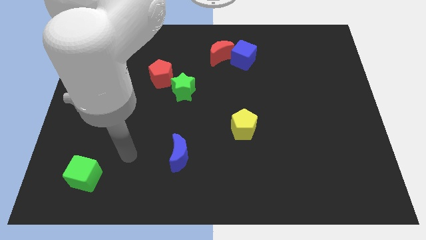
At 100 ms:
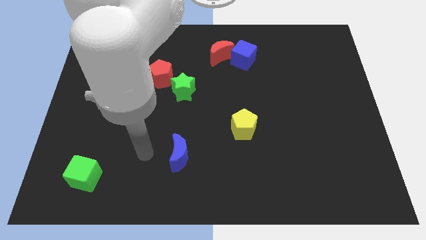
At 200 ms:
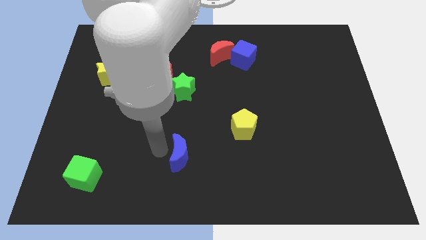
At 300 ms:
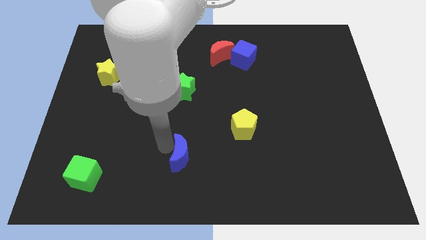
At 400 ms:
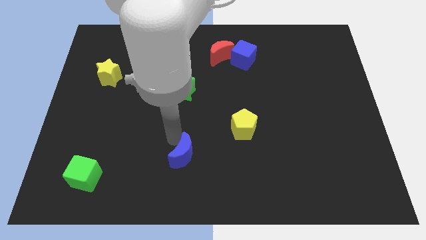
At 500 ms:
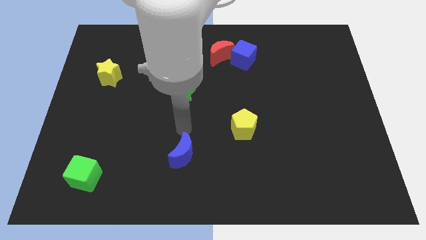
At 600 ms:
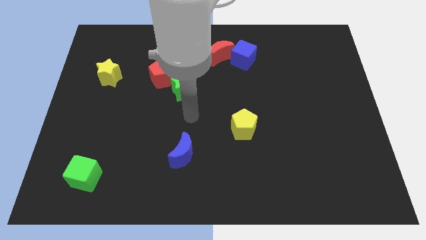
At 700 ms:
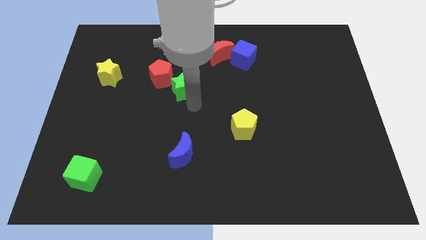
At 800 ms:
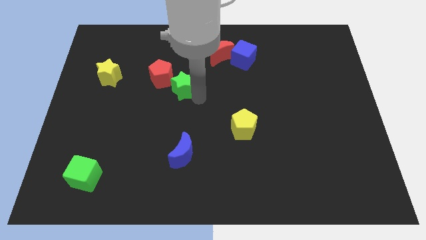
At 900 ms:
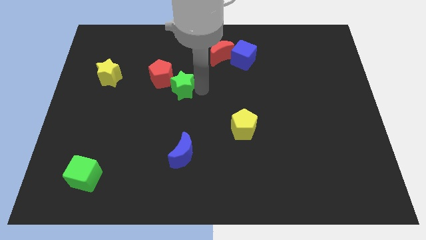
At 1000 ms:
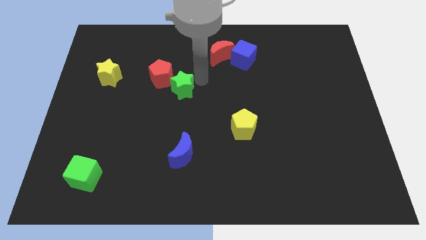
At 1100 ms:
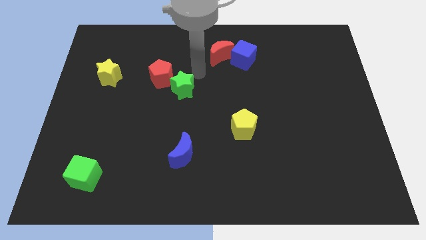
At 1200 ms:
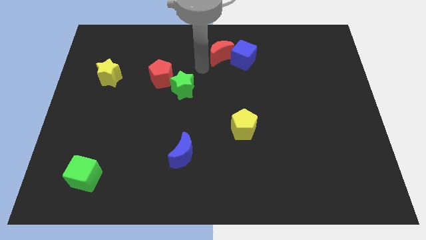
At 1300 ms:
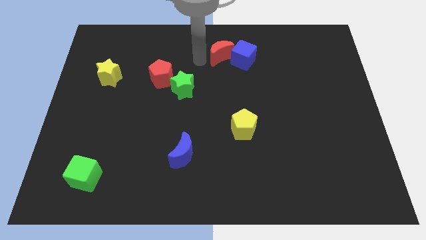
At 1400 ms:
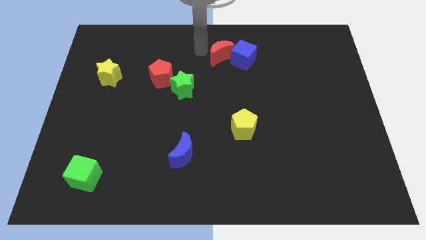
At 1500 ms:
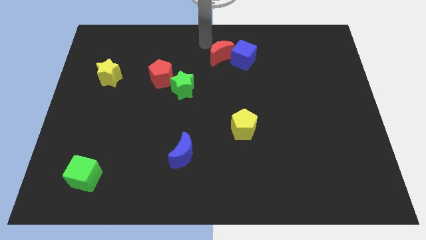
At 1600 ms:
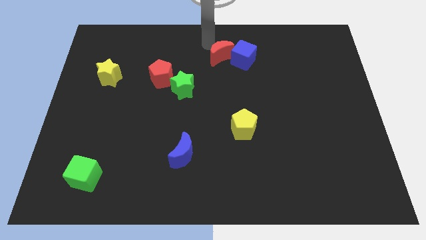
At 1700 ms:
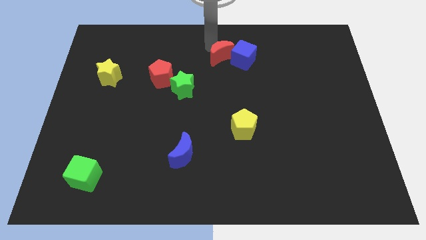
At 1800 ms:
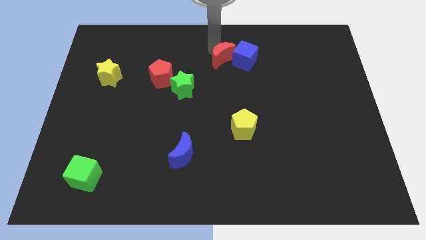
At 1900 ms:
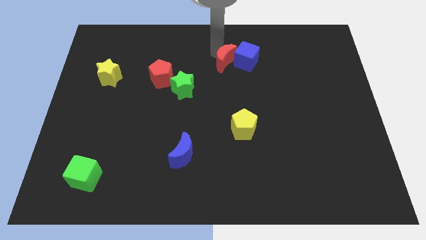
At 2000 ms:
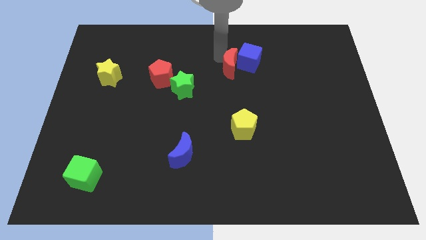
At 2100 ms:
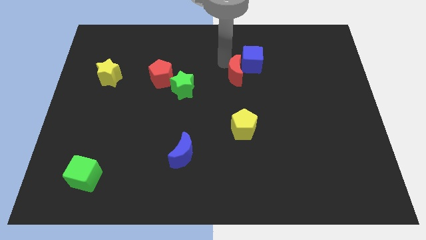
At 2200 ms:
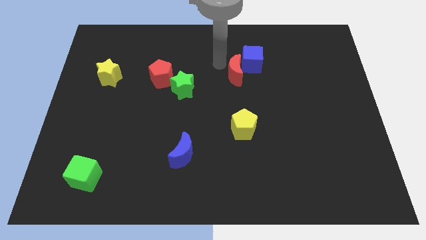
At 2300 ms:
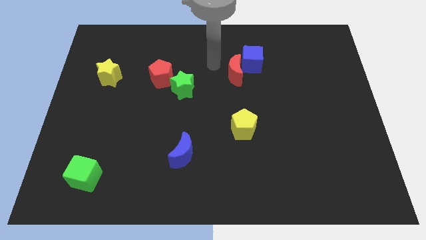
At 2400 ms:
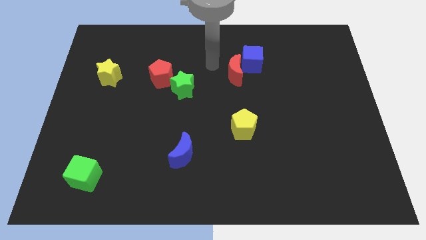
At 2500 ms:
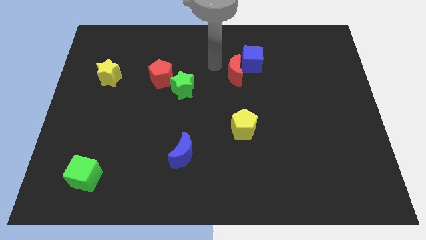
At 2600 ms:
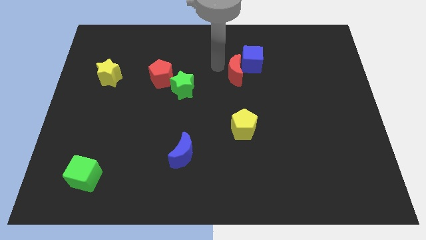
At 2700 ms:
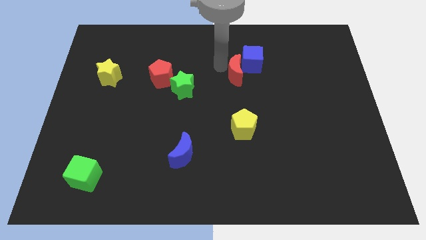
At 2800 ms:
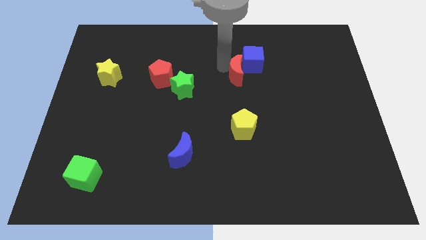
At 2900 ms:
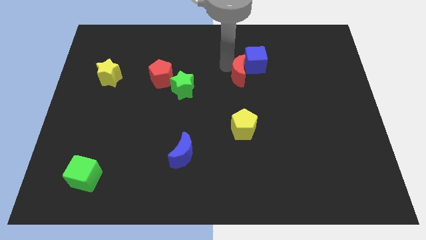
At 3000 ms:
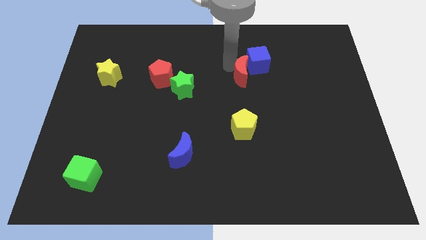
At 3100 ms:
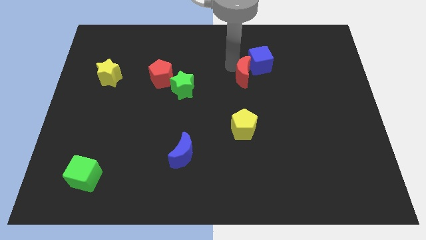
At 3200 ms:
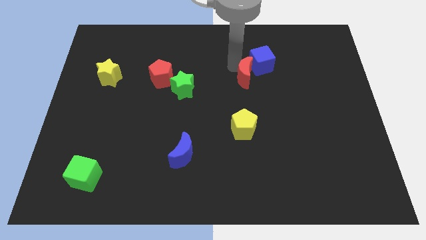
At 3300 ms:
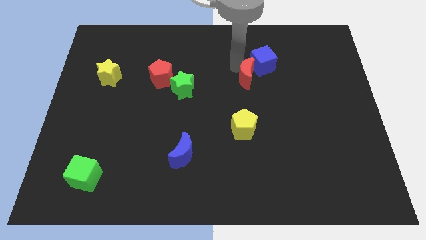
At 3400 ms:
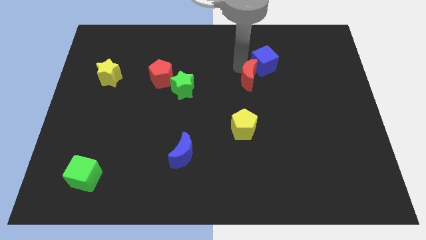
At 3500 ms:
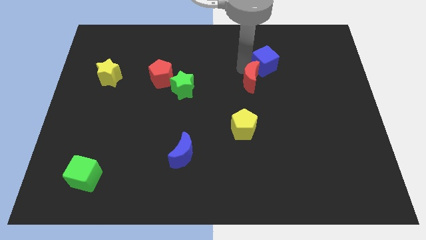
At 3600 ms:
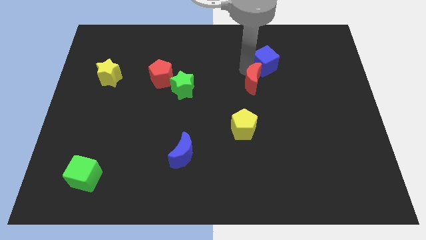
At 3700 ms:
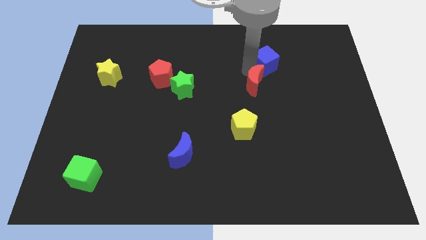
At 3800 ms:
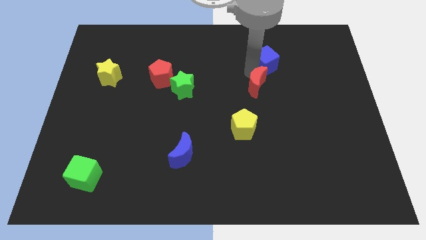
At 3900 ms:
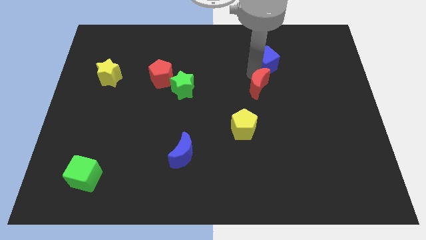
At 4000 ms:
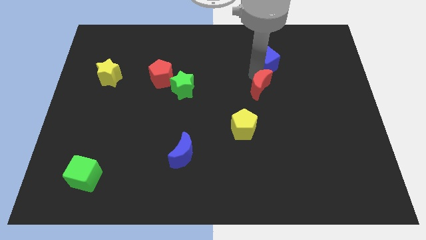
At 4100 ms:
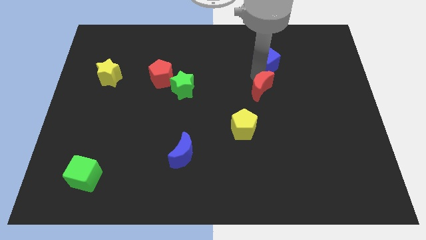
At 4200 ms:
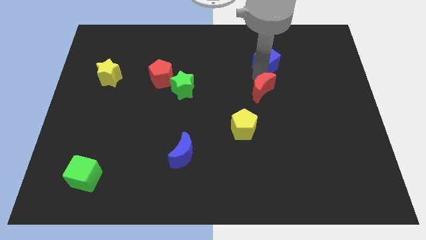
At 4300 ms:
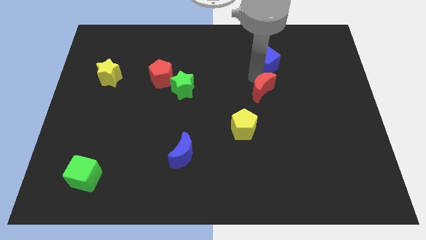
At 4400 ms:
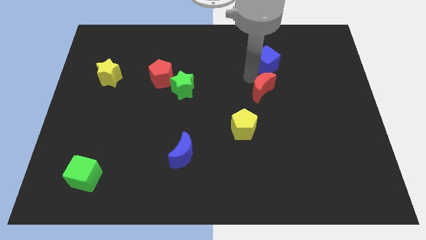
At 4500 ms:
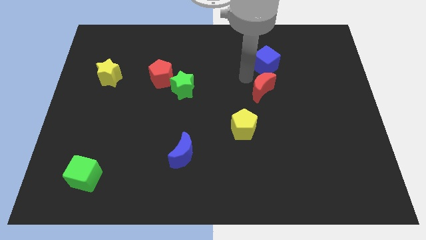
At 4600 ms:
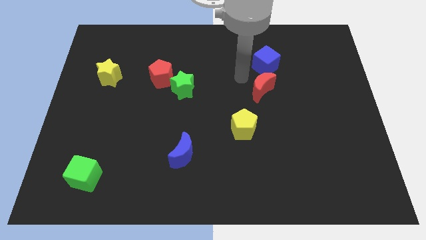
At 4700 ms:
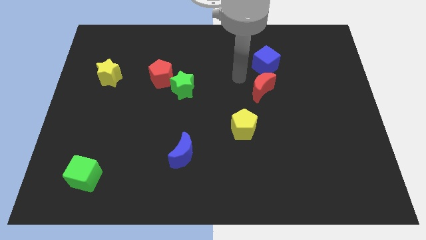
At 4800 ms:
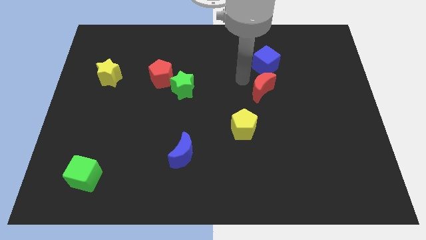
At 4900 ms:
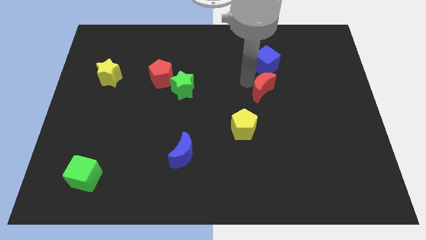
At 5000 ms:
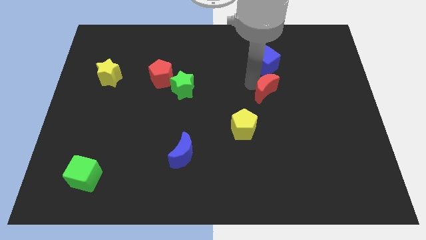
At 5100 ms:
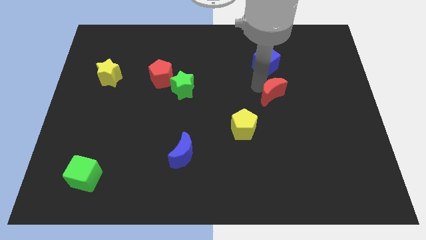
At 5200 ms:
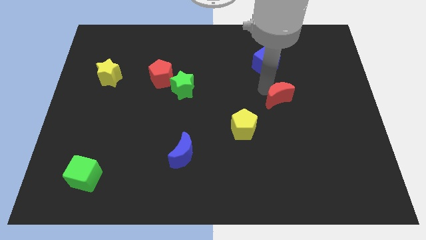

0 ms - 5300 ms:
slide the red moon downwards and right diagonally

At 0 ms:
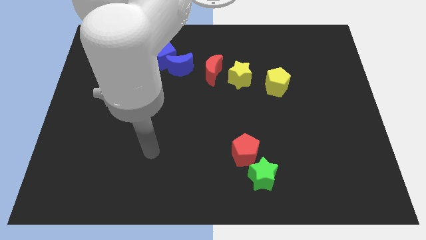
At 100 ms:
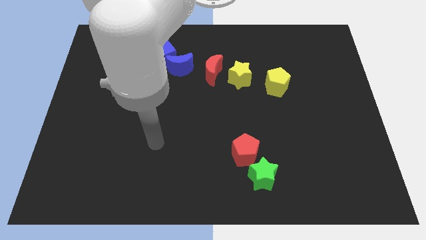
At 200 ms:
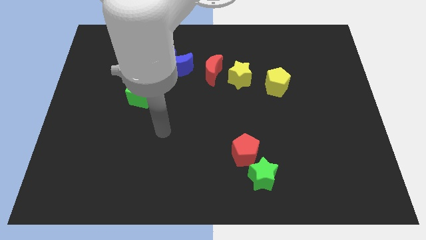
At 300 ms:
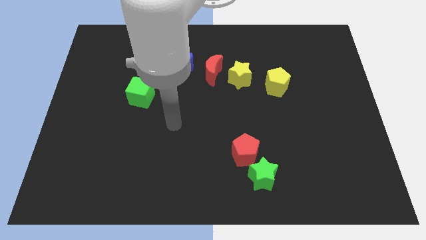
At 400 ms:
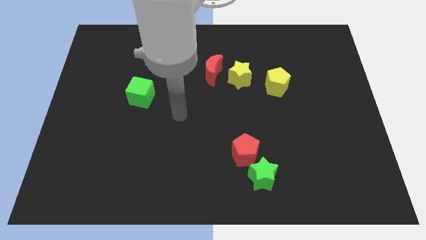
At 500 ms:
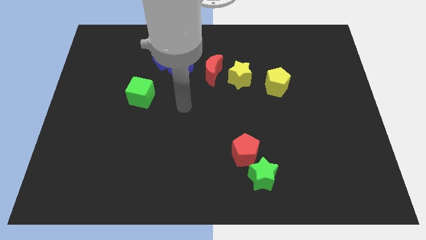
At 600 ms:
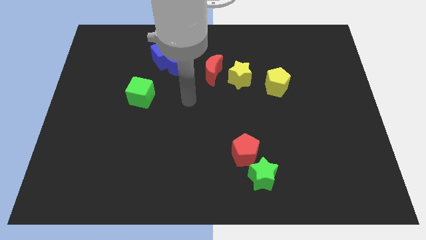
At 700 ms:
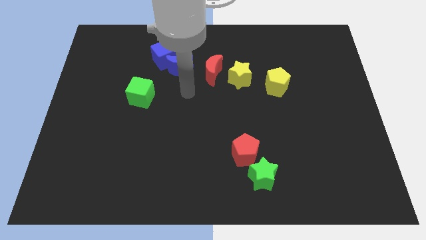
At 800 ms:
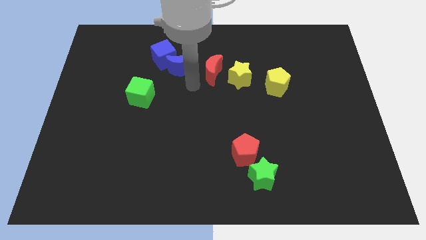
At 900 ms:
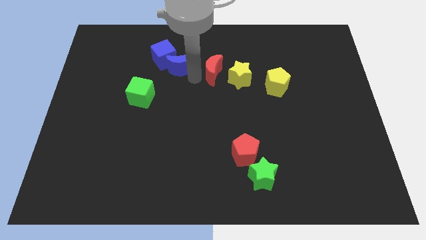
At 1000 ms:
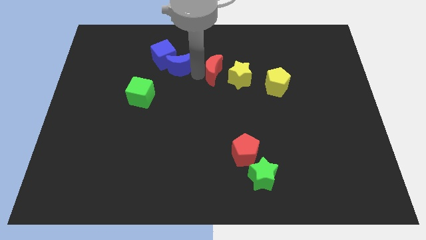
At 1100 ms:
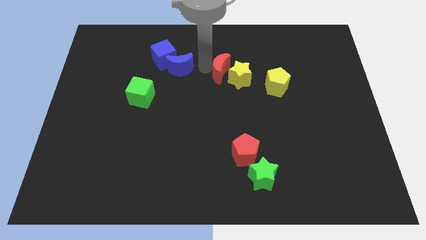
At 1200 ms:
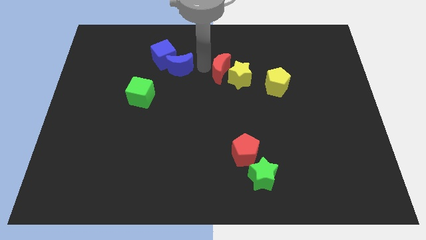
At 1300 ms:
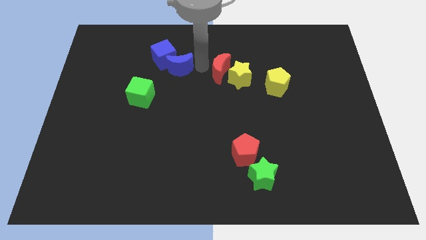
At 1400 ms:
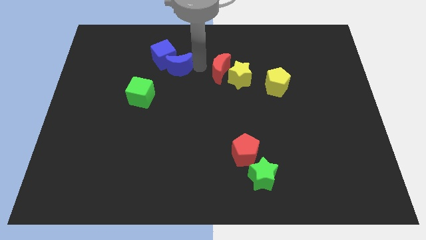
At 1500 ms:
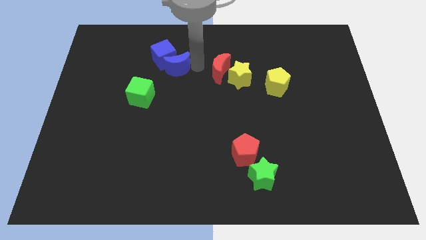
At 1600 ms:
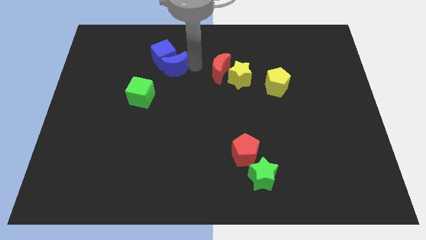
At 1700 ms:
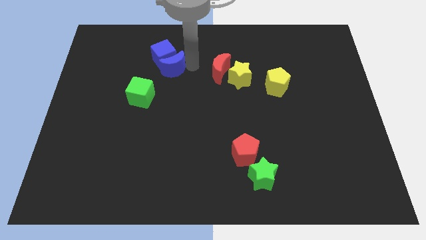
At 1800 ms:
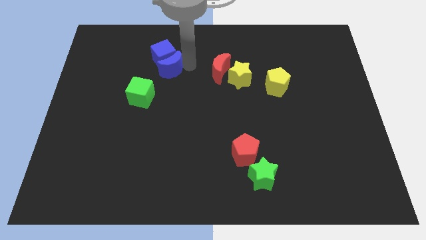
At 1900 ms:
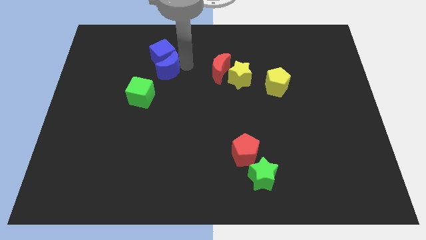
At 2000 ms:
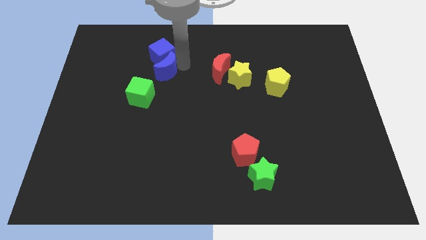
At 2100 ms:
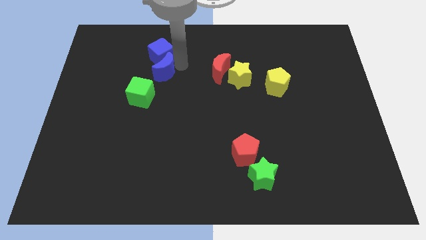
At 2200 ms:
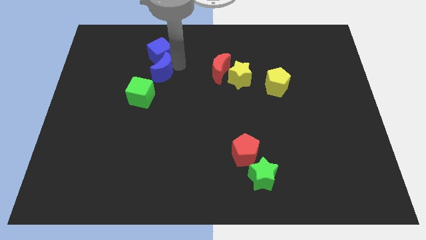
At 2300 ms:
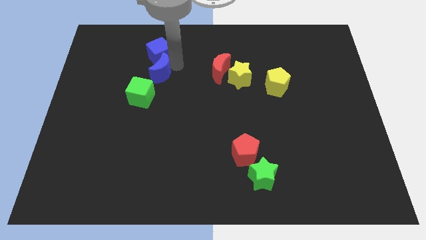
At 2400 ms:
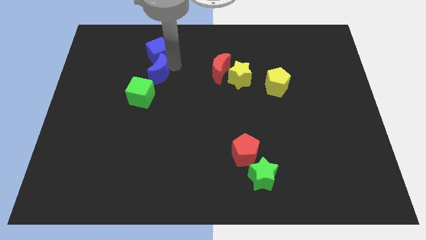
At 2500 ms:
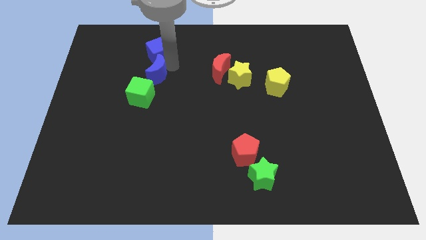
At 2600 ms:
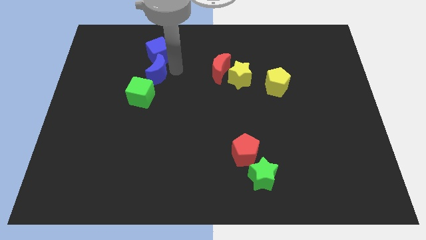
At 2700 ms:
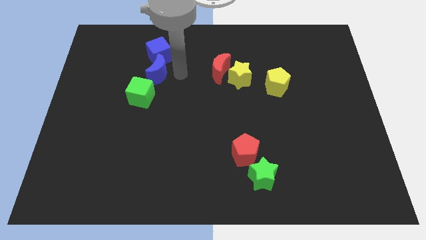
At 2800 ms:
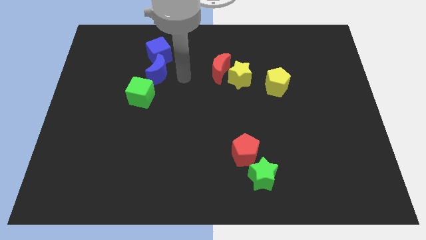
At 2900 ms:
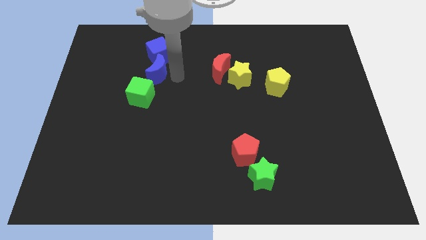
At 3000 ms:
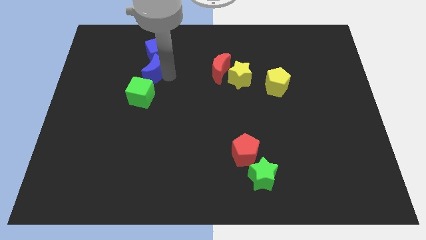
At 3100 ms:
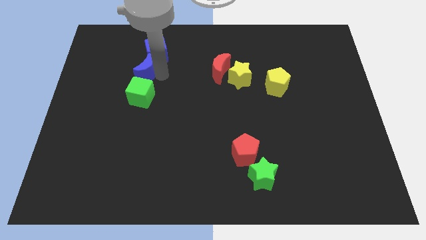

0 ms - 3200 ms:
slightly slide the blue moon to the left
